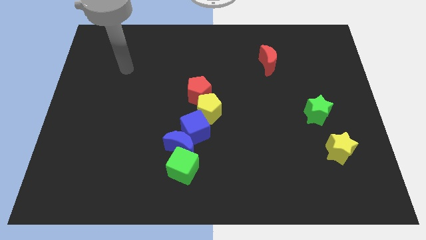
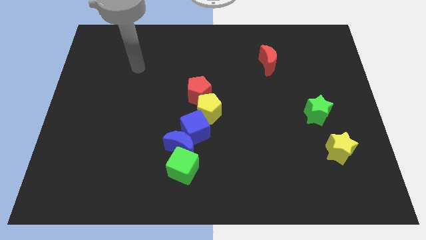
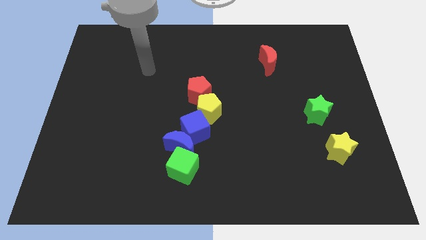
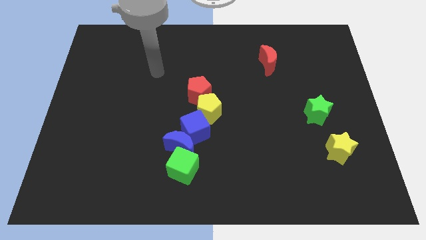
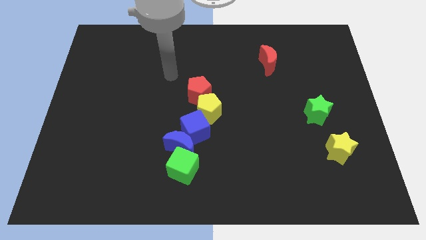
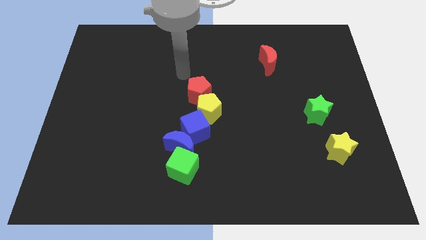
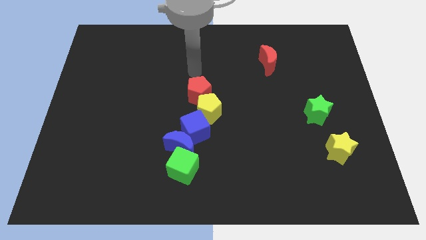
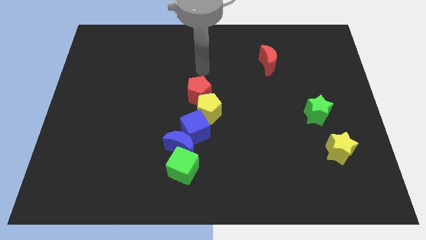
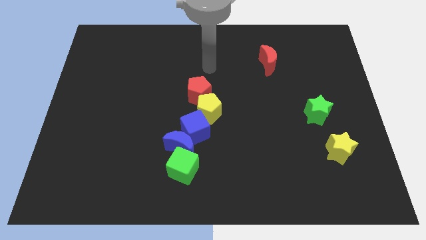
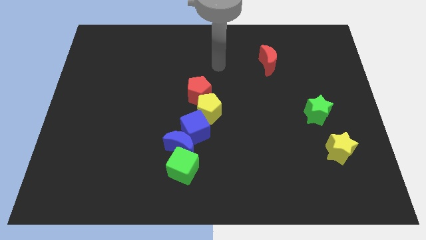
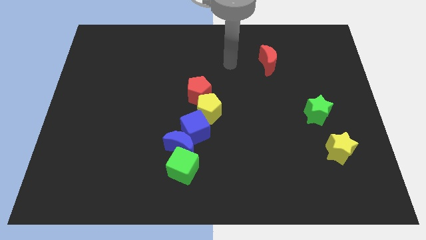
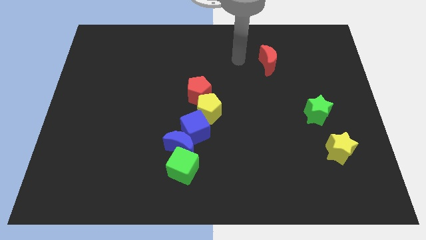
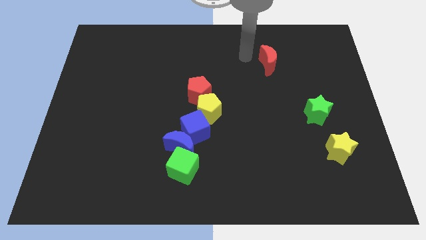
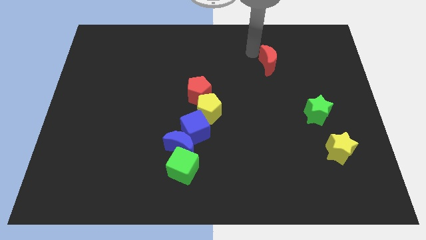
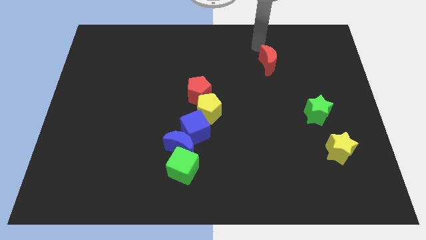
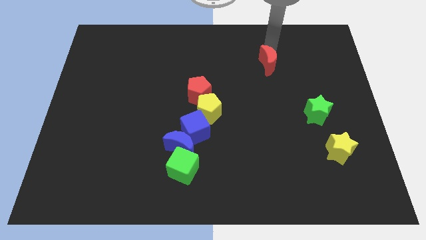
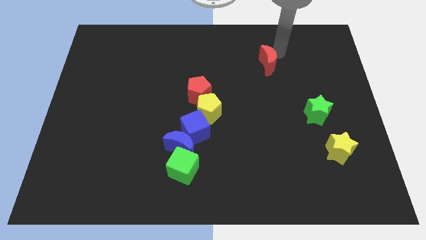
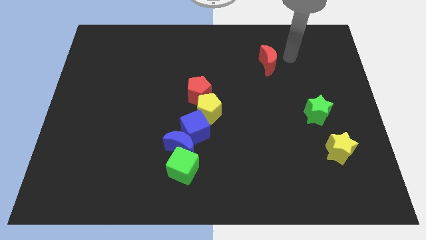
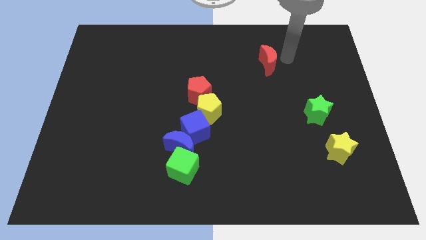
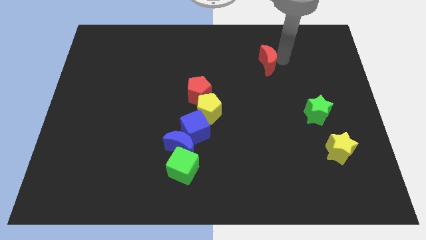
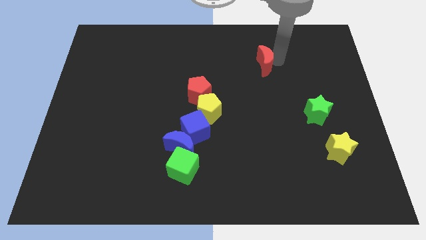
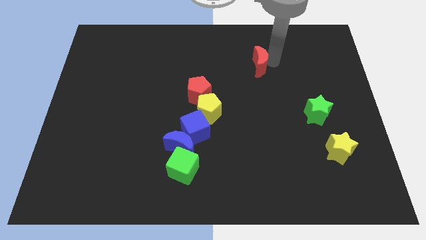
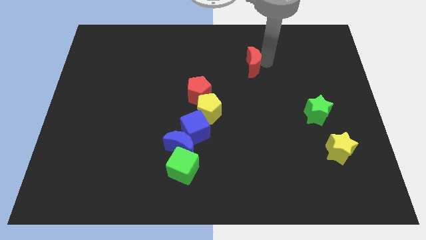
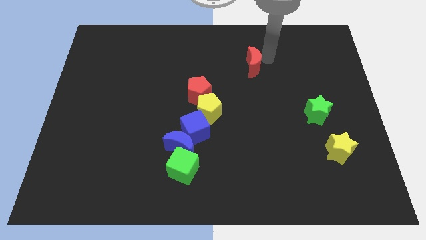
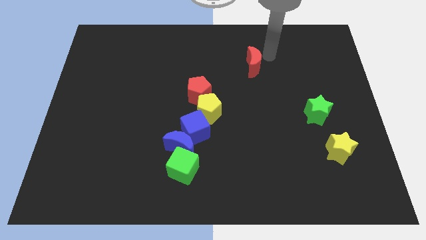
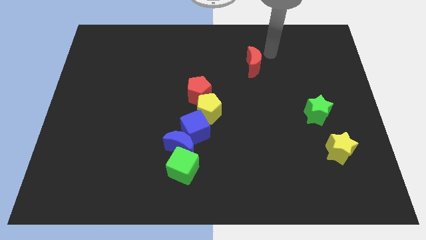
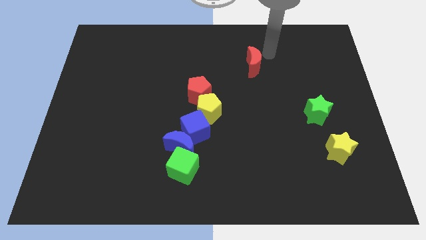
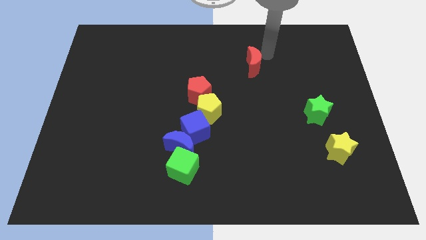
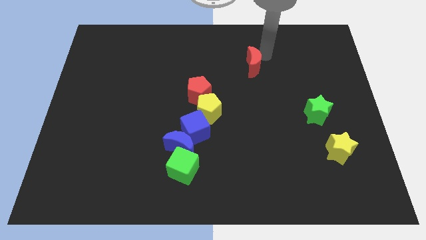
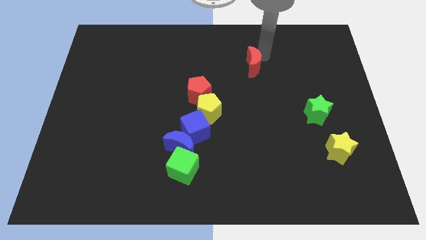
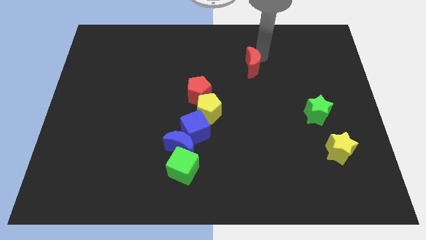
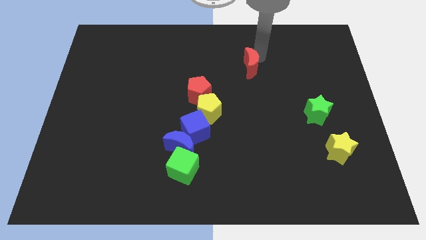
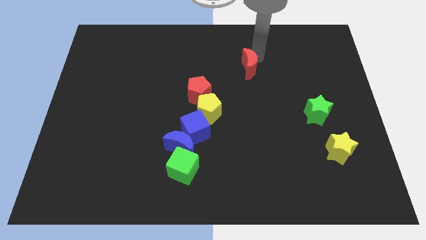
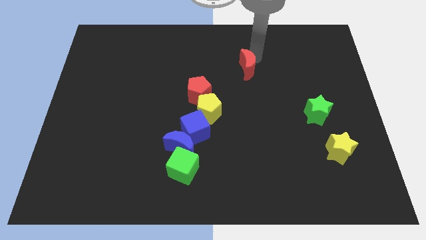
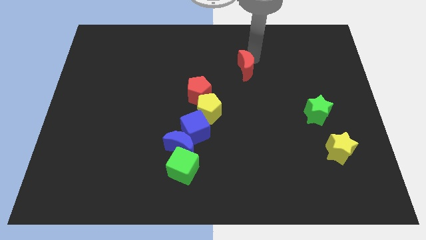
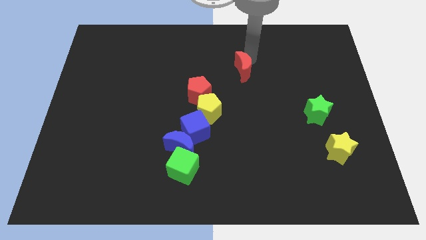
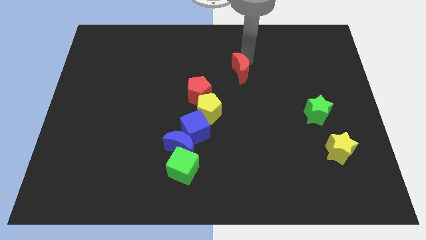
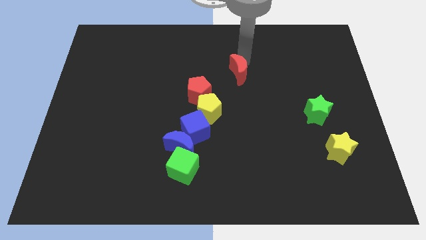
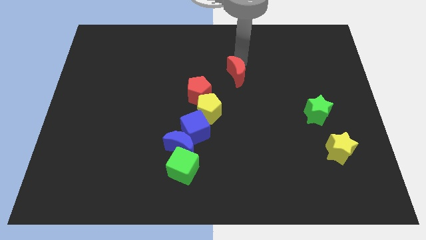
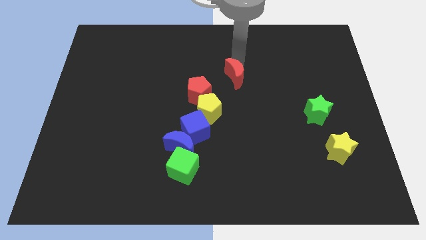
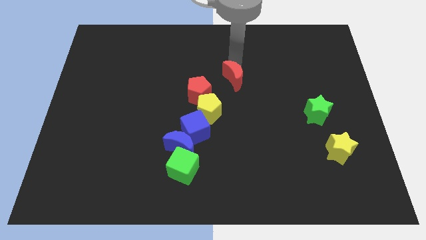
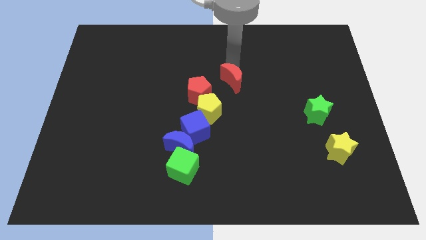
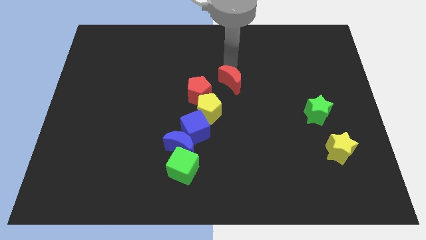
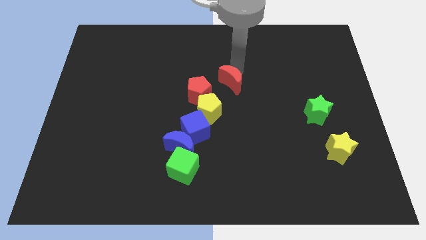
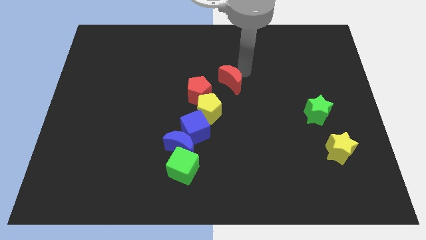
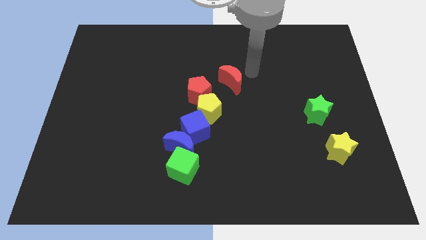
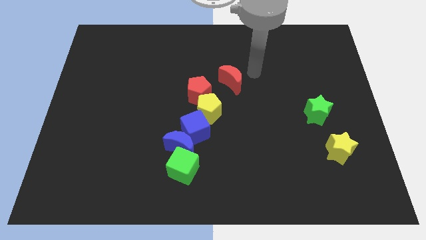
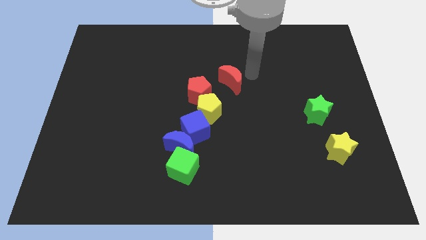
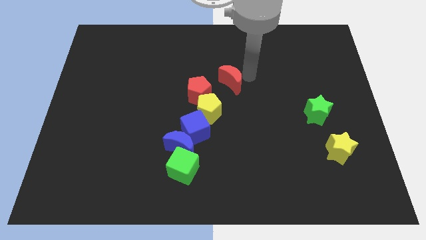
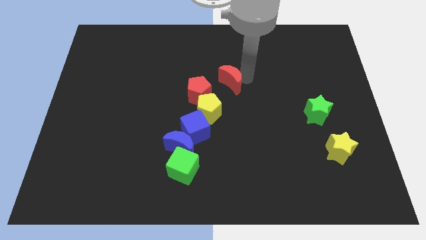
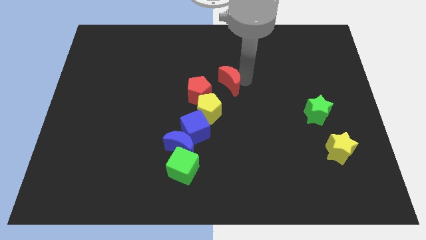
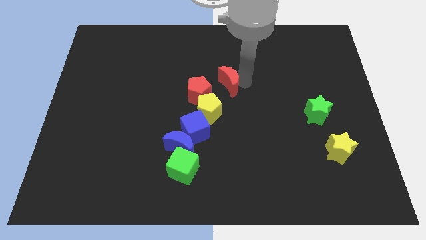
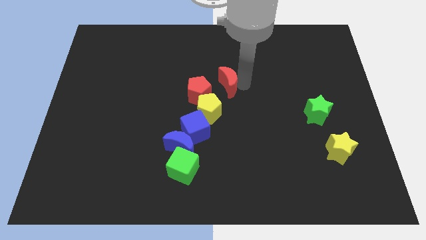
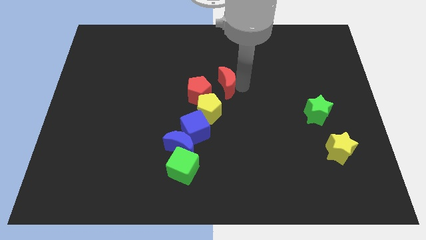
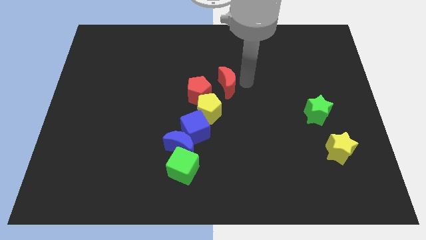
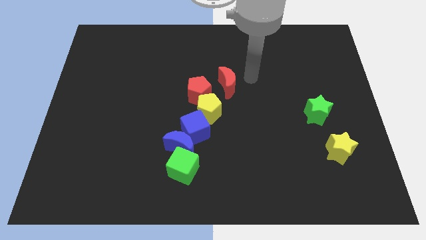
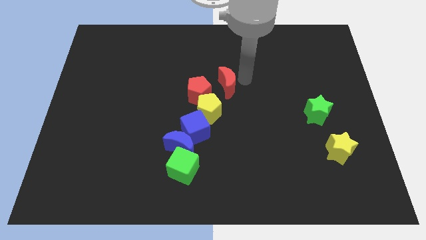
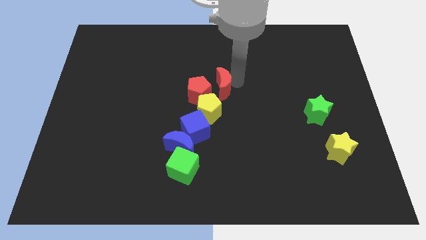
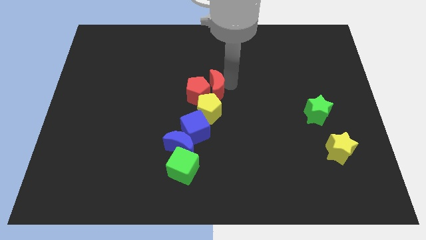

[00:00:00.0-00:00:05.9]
push the red moon next to the red pentagon
